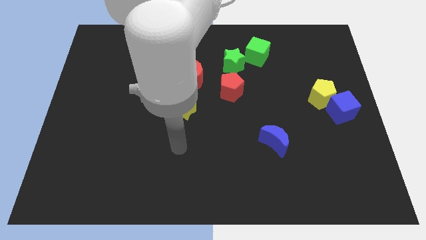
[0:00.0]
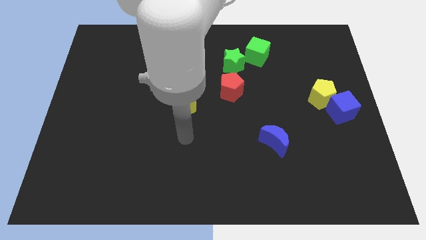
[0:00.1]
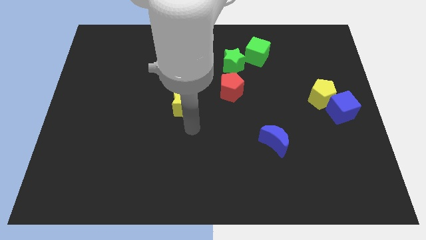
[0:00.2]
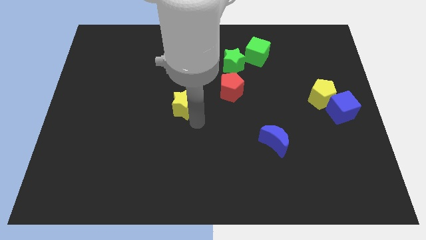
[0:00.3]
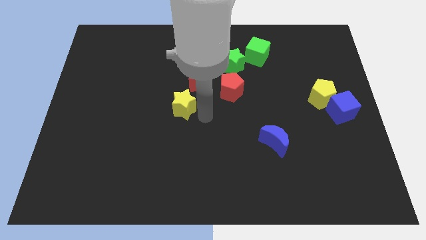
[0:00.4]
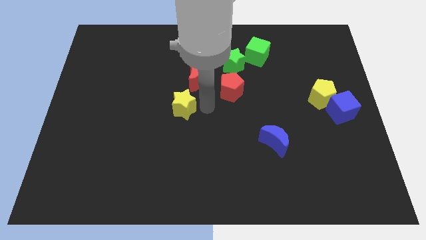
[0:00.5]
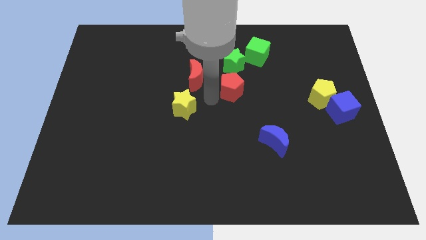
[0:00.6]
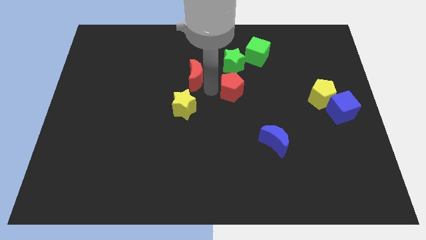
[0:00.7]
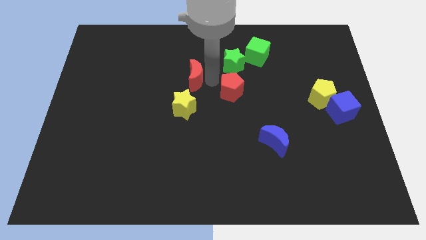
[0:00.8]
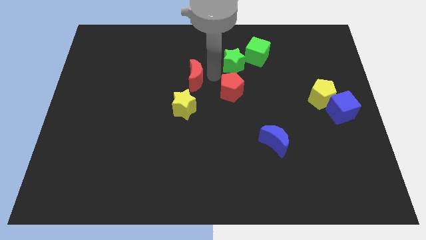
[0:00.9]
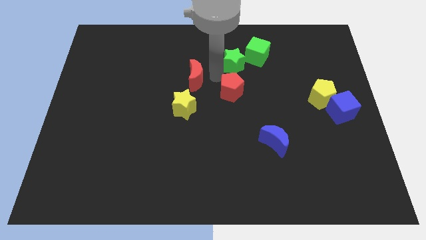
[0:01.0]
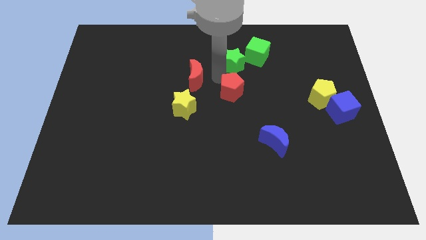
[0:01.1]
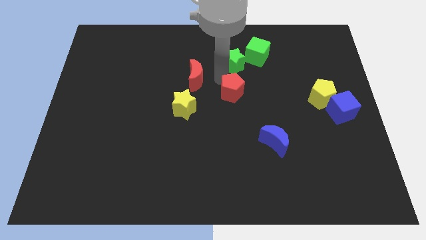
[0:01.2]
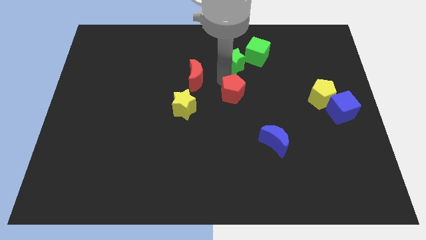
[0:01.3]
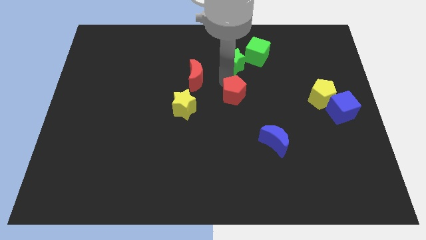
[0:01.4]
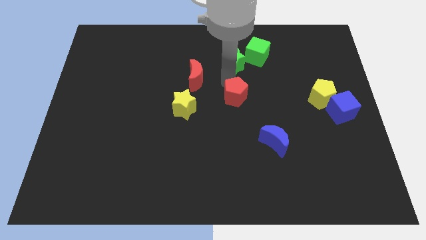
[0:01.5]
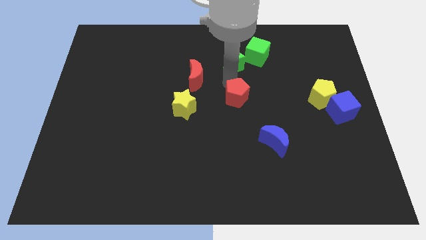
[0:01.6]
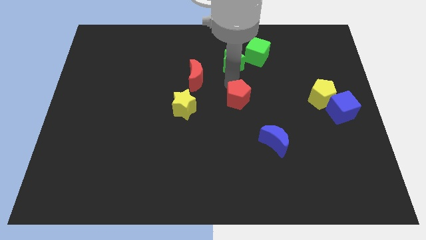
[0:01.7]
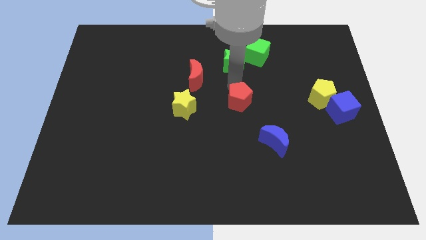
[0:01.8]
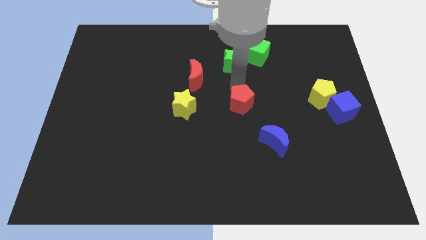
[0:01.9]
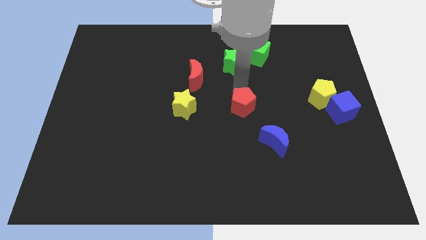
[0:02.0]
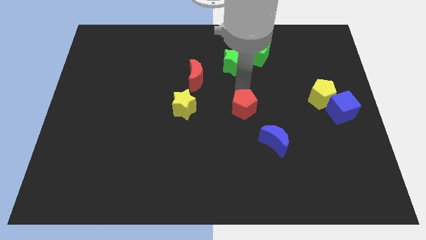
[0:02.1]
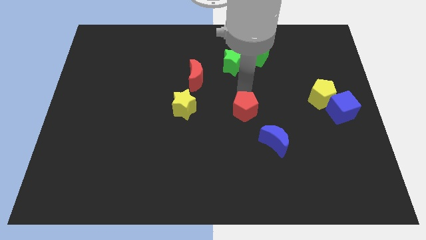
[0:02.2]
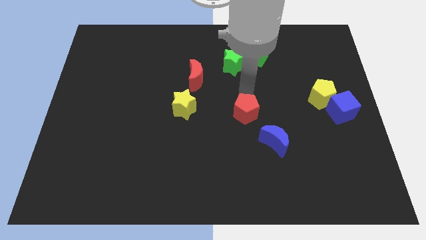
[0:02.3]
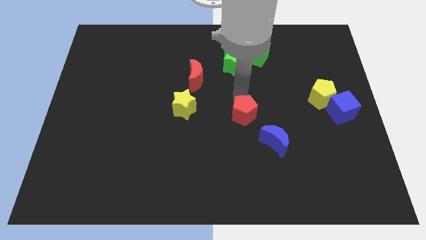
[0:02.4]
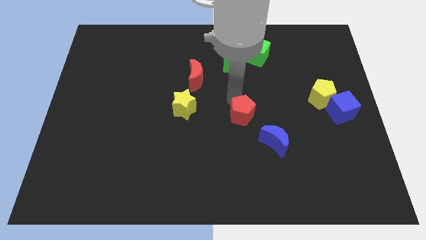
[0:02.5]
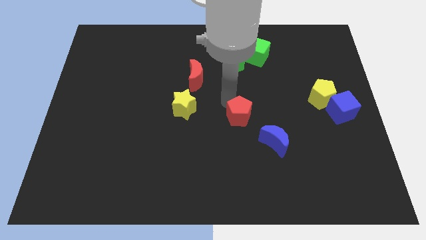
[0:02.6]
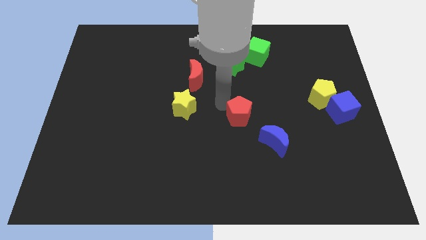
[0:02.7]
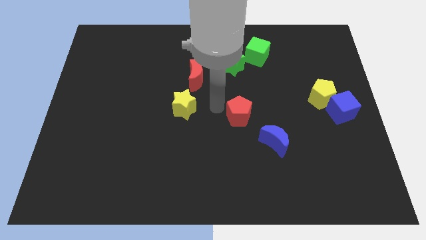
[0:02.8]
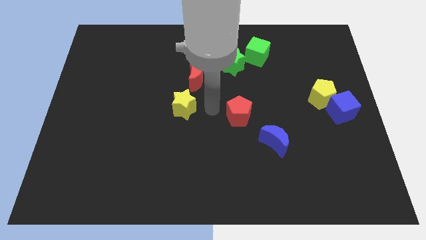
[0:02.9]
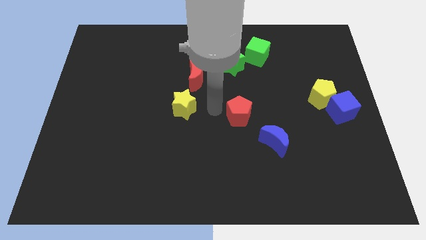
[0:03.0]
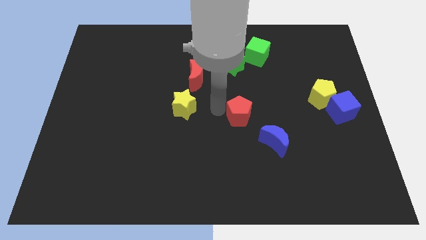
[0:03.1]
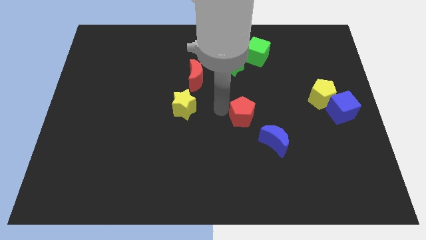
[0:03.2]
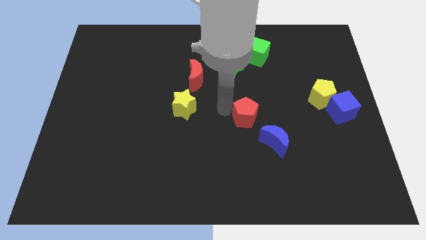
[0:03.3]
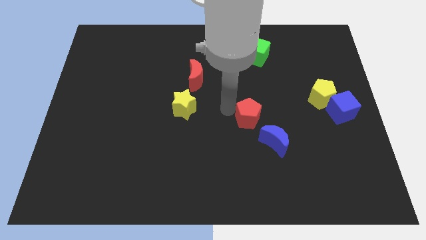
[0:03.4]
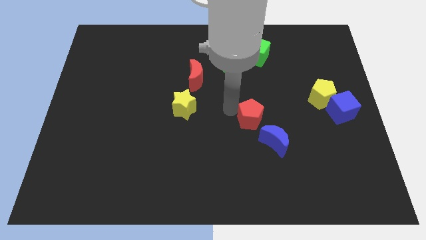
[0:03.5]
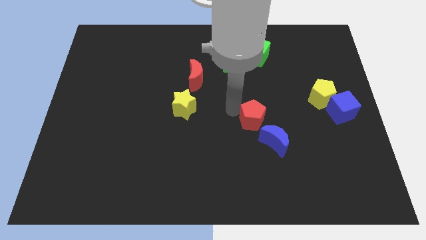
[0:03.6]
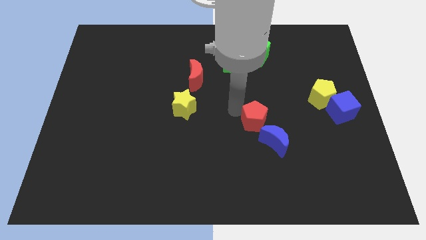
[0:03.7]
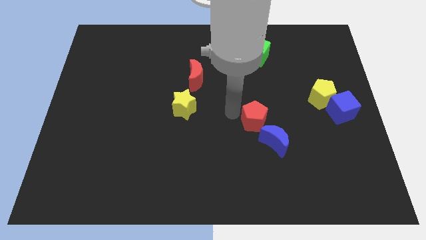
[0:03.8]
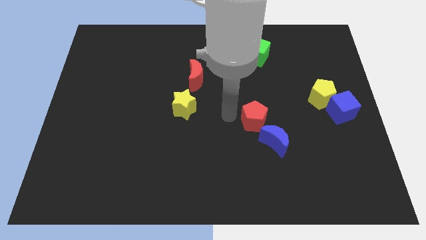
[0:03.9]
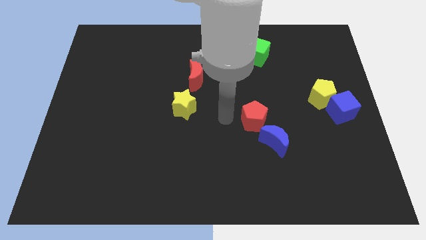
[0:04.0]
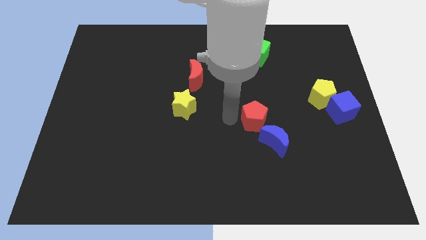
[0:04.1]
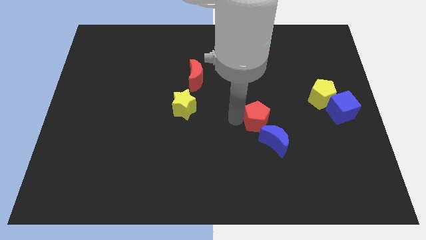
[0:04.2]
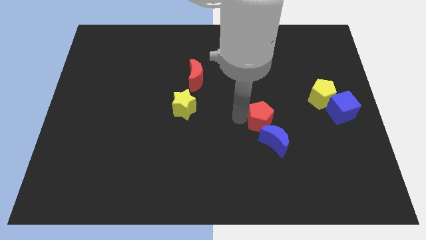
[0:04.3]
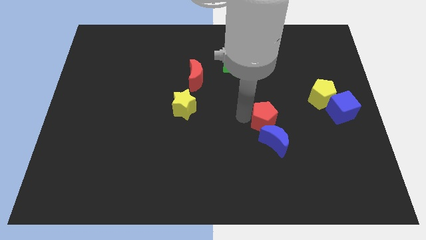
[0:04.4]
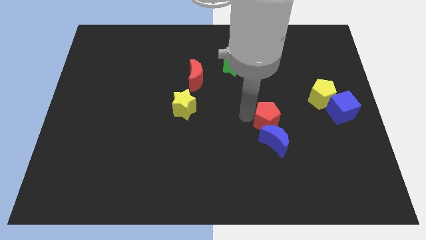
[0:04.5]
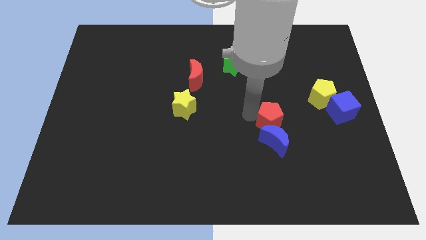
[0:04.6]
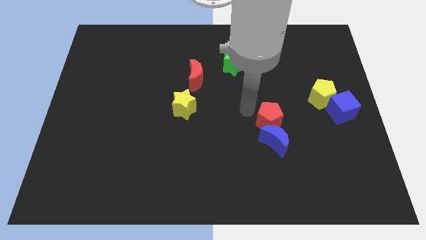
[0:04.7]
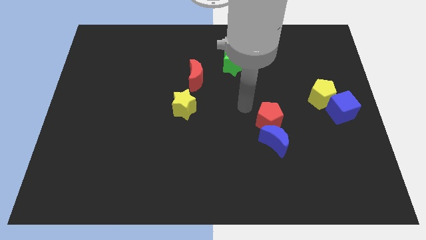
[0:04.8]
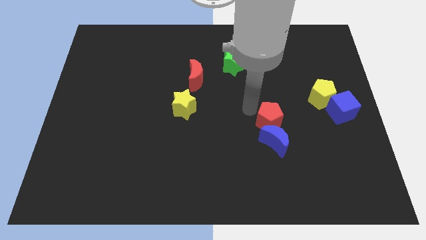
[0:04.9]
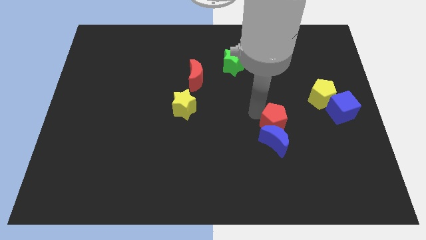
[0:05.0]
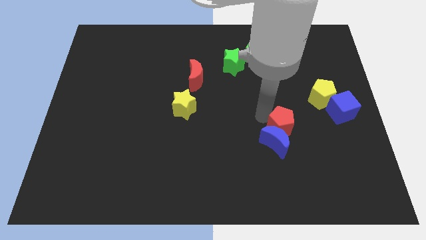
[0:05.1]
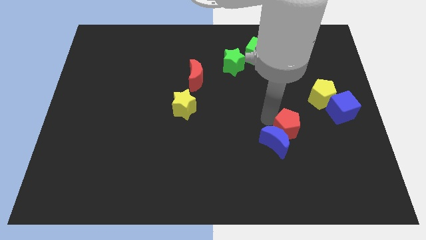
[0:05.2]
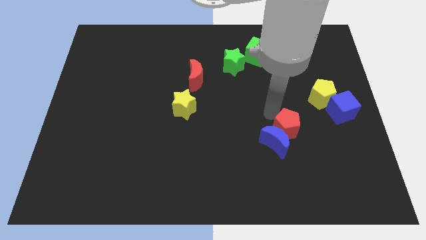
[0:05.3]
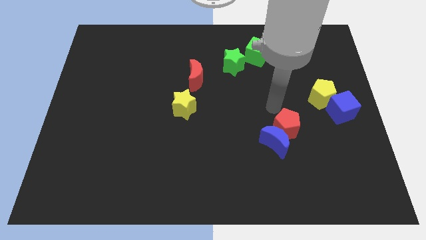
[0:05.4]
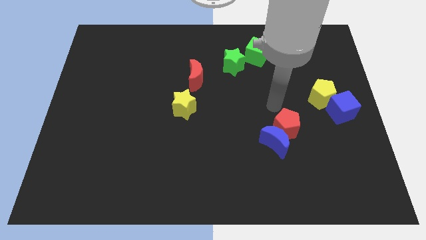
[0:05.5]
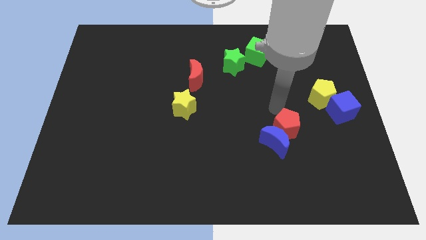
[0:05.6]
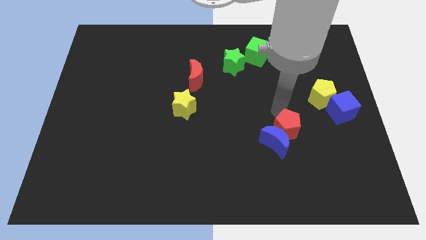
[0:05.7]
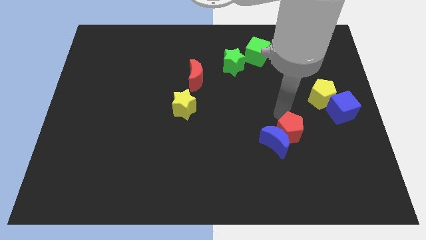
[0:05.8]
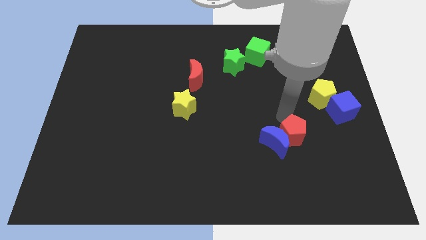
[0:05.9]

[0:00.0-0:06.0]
push the red pentagon to the bottom right of the blue moon

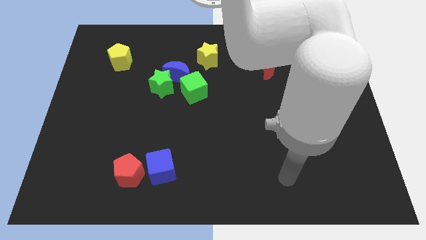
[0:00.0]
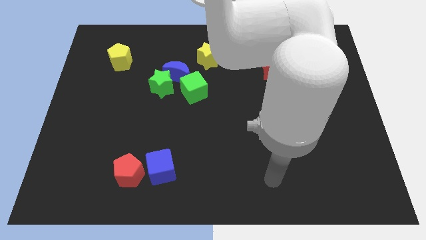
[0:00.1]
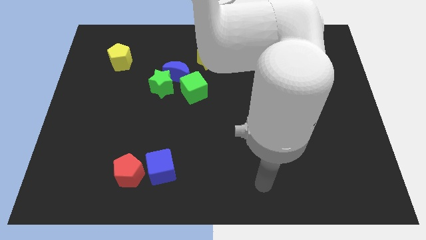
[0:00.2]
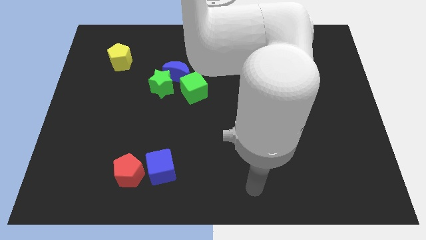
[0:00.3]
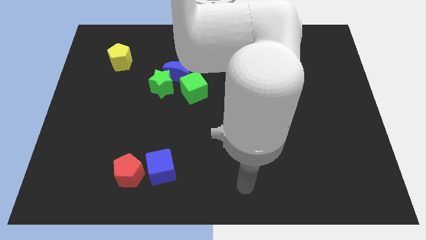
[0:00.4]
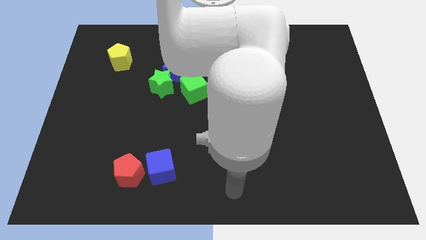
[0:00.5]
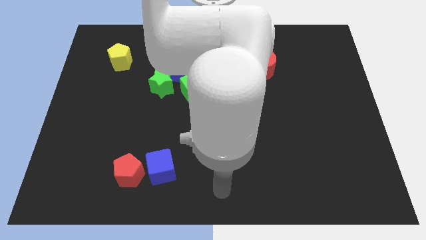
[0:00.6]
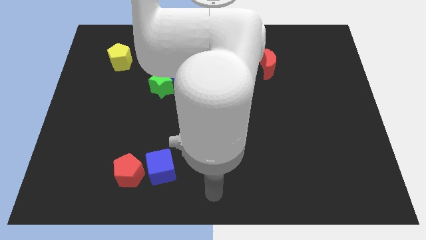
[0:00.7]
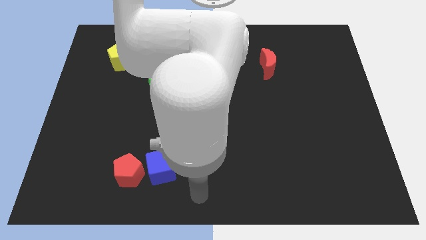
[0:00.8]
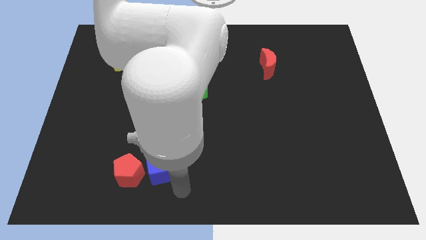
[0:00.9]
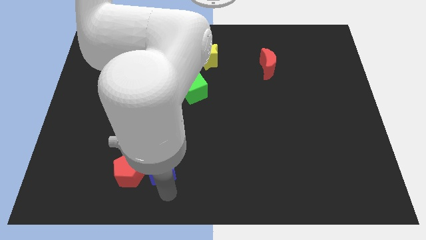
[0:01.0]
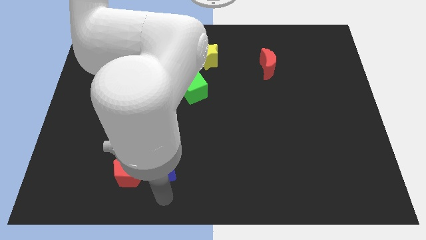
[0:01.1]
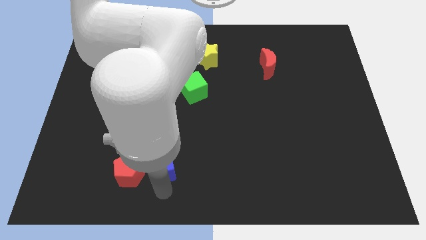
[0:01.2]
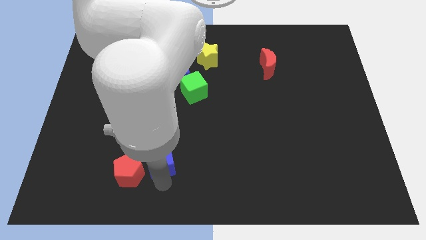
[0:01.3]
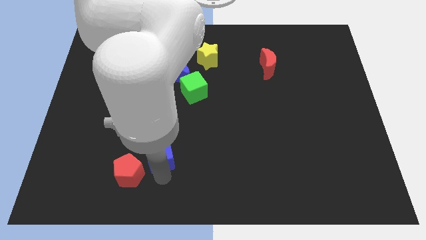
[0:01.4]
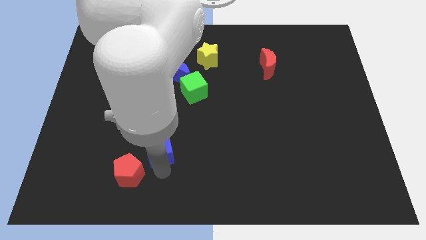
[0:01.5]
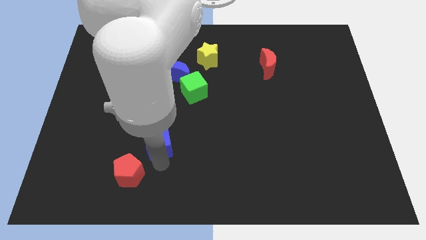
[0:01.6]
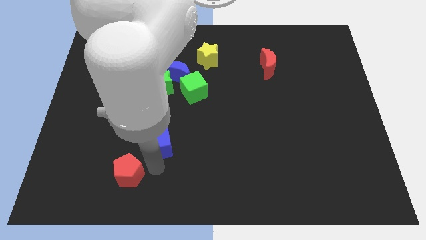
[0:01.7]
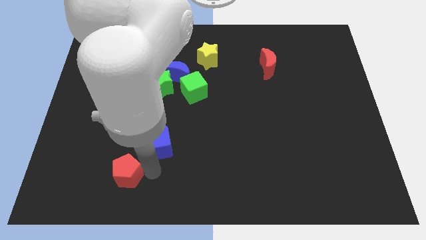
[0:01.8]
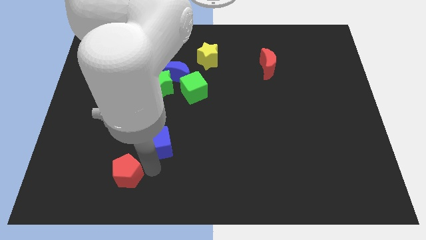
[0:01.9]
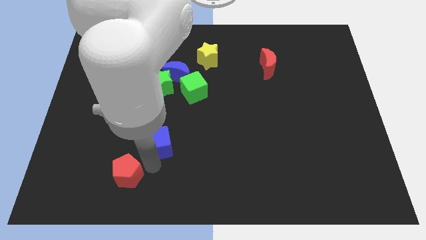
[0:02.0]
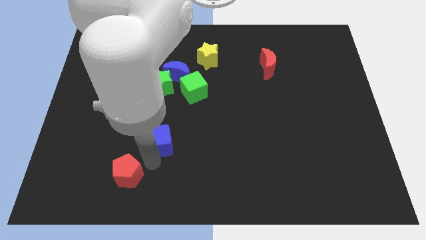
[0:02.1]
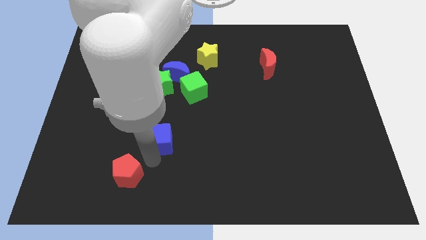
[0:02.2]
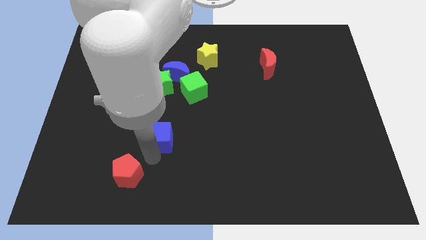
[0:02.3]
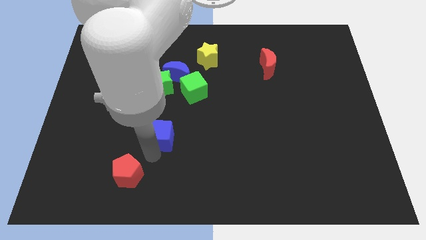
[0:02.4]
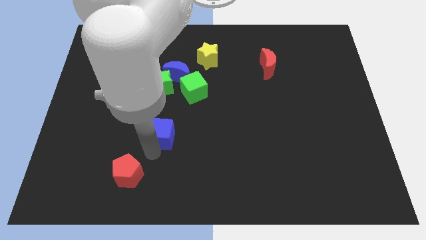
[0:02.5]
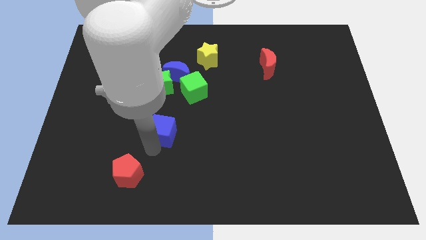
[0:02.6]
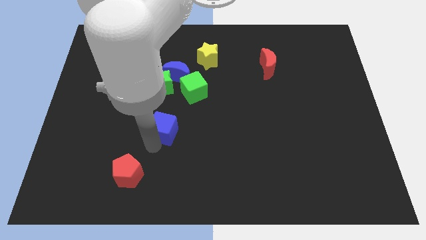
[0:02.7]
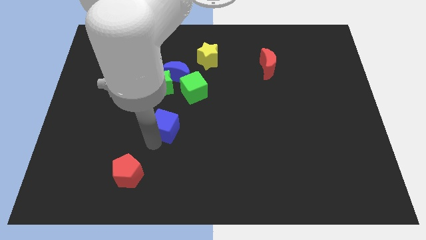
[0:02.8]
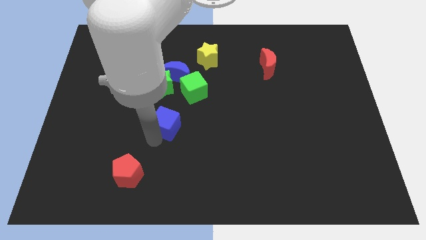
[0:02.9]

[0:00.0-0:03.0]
move the blue cube to the bottom of the blue moon
